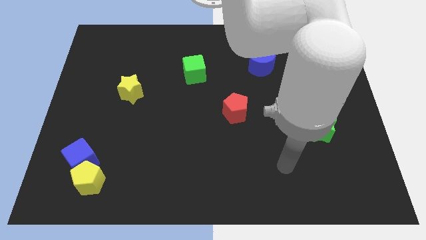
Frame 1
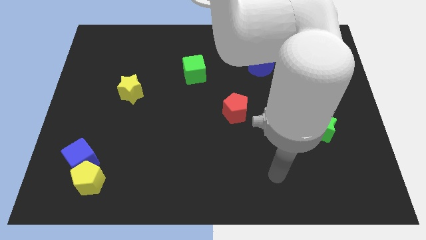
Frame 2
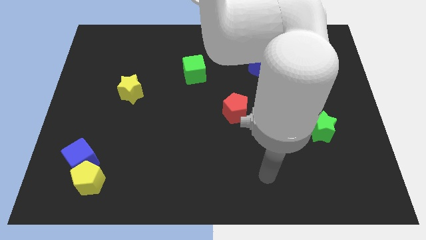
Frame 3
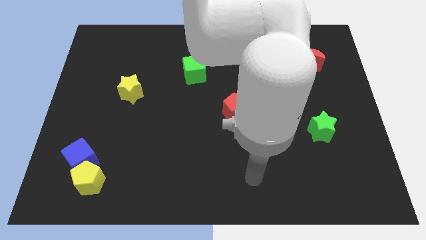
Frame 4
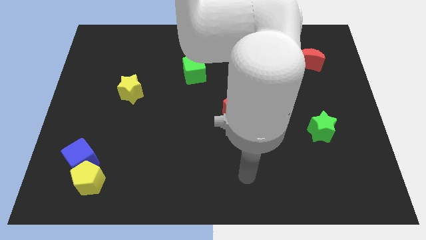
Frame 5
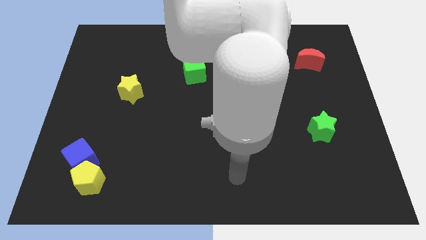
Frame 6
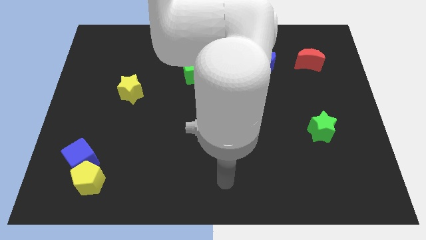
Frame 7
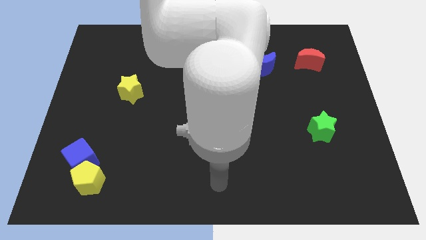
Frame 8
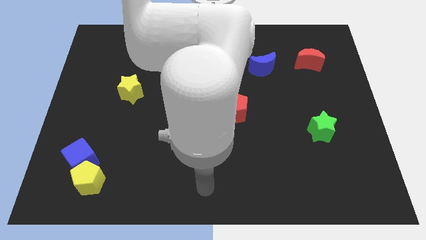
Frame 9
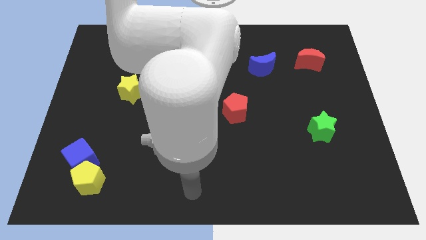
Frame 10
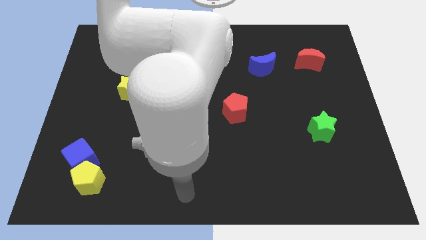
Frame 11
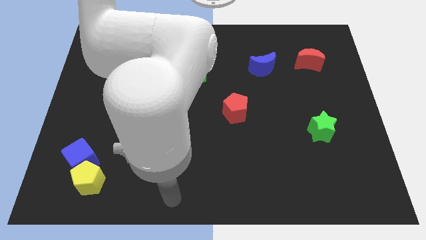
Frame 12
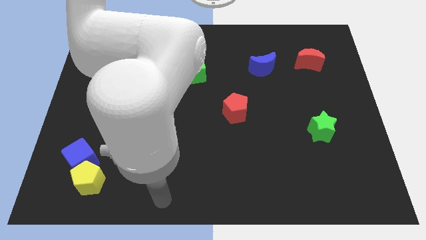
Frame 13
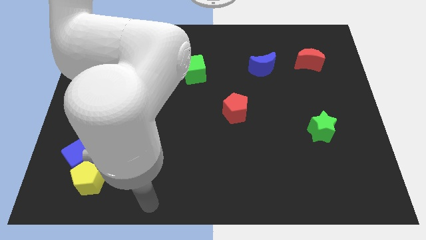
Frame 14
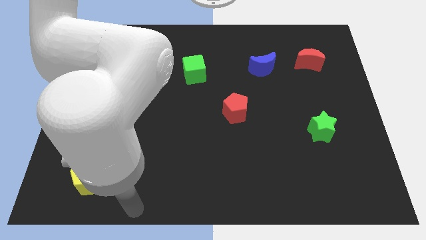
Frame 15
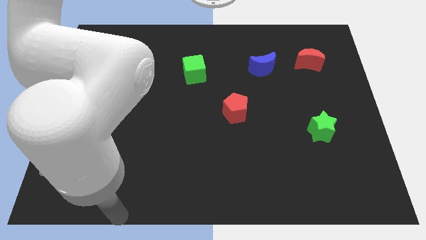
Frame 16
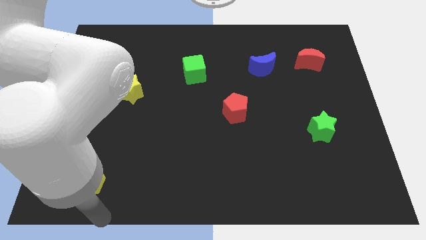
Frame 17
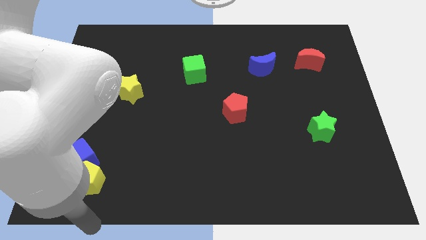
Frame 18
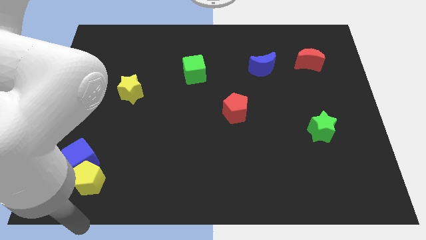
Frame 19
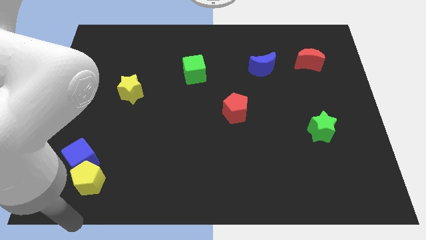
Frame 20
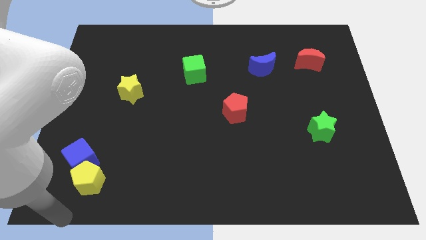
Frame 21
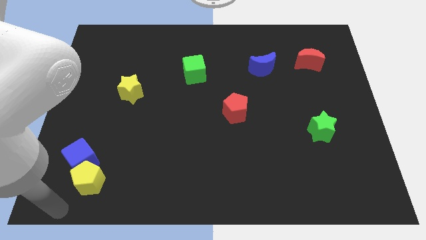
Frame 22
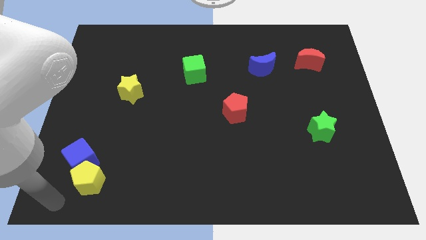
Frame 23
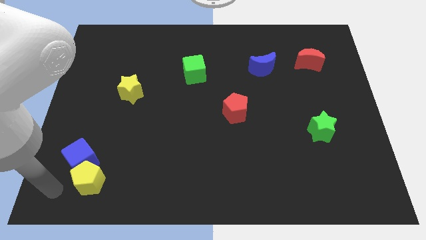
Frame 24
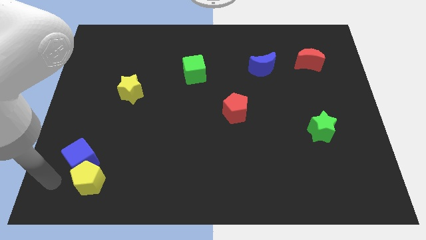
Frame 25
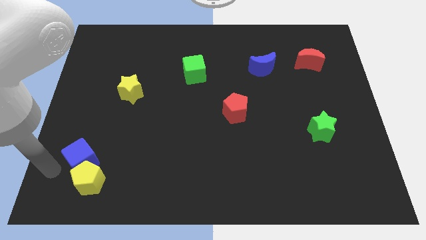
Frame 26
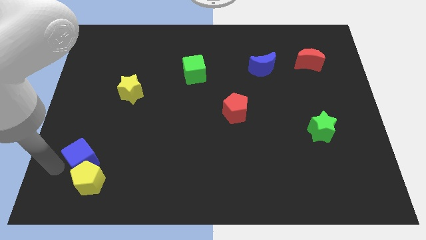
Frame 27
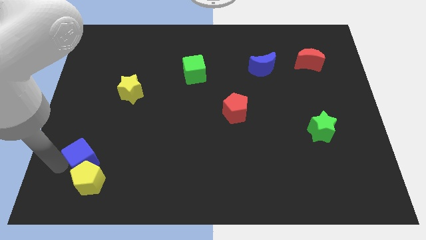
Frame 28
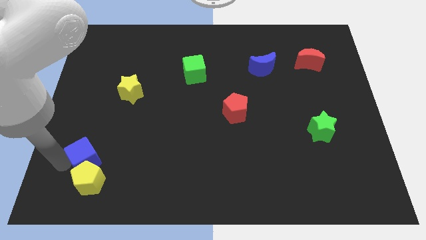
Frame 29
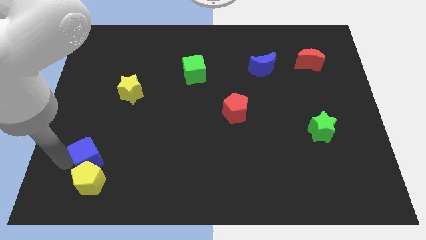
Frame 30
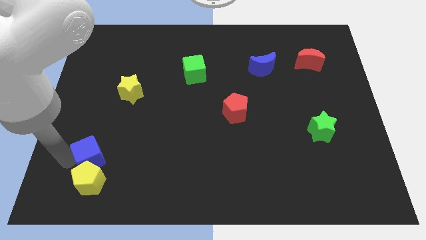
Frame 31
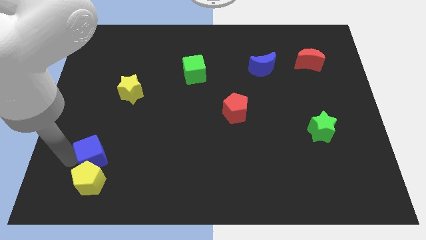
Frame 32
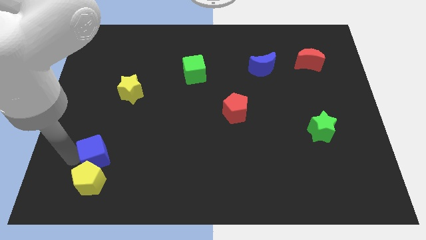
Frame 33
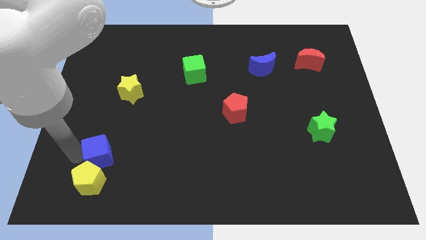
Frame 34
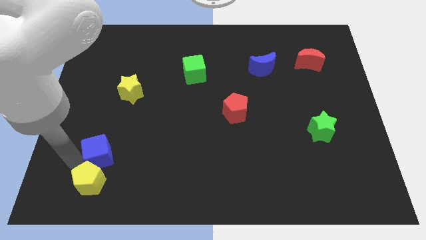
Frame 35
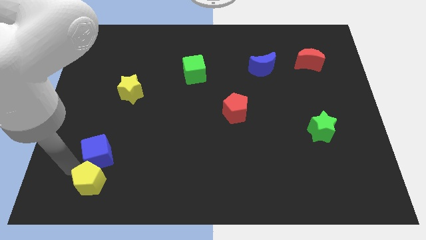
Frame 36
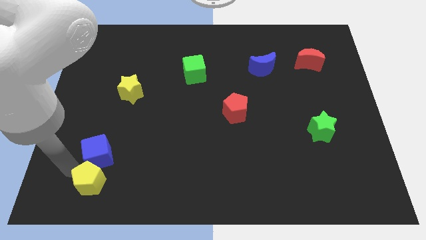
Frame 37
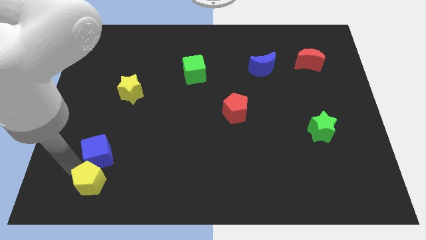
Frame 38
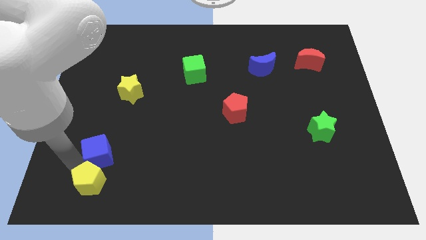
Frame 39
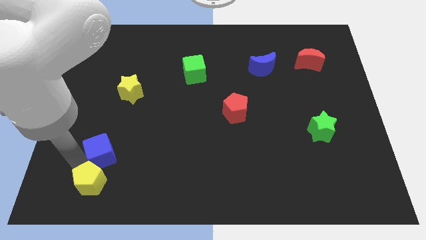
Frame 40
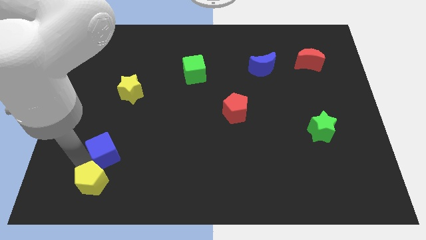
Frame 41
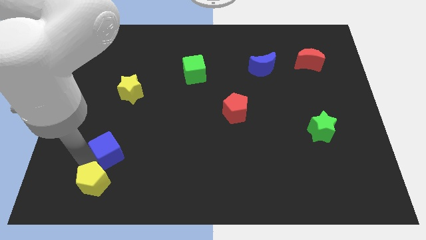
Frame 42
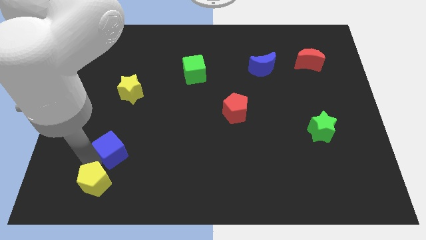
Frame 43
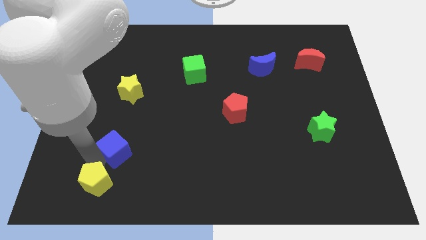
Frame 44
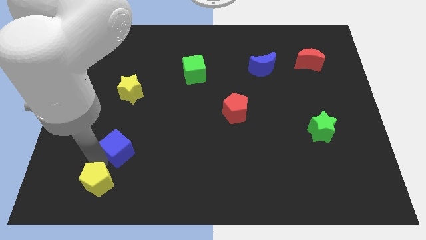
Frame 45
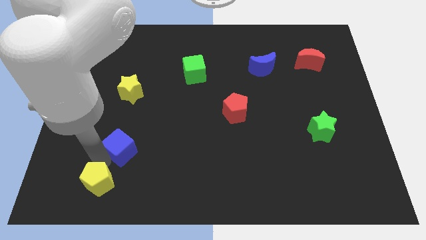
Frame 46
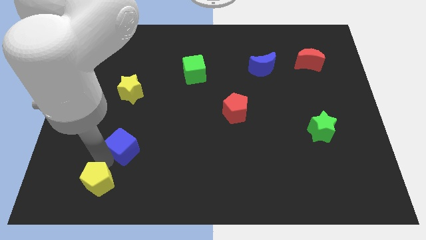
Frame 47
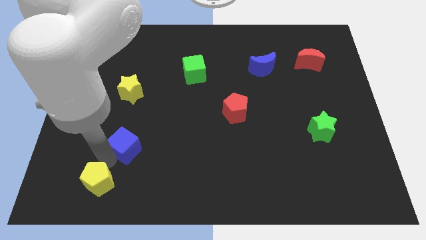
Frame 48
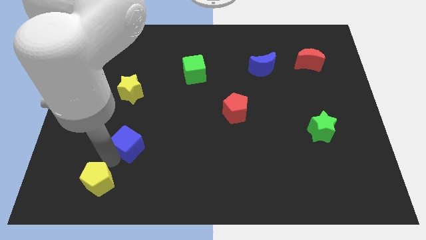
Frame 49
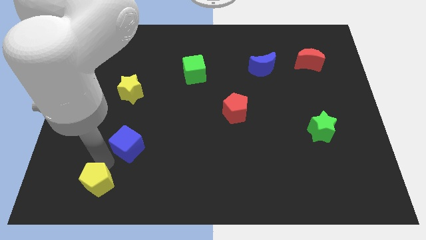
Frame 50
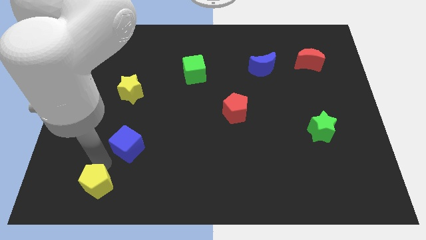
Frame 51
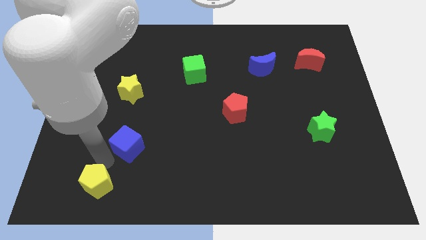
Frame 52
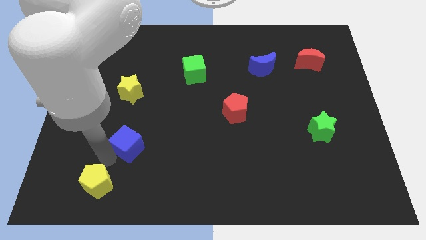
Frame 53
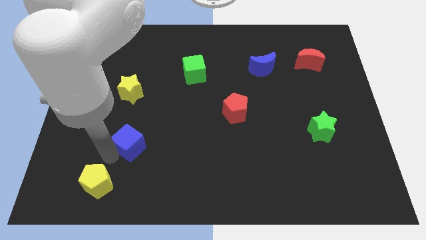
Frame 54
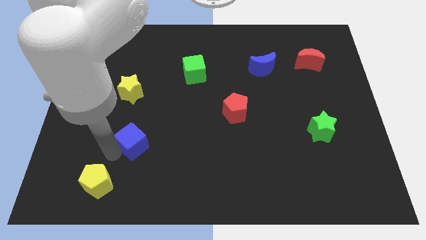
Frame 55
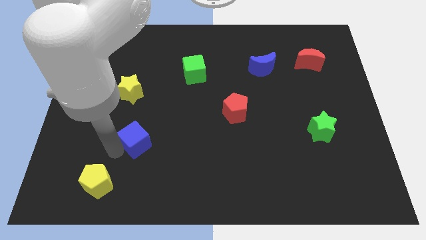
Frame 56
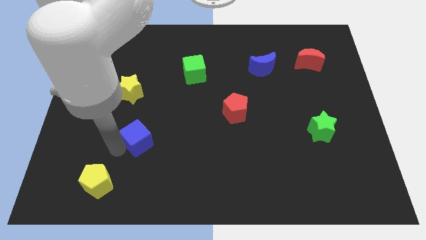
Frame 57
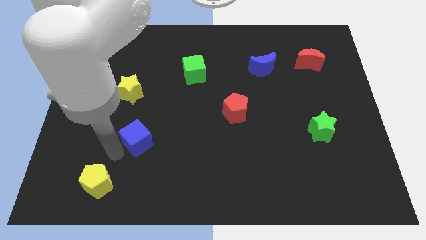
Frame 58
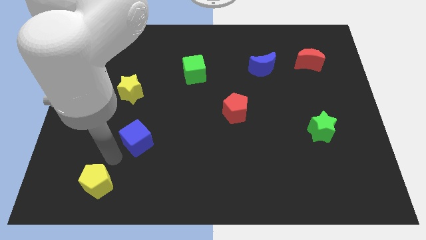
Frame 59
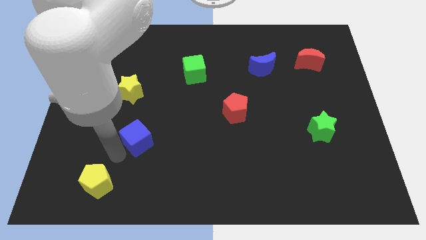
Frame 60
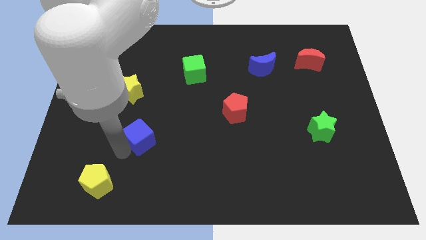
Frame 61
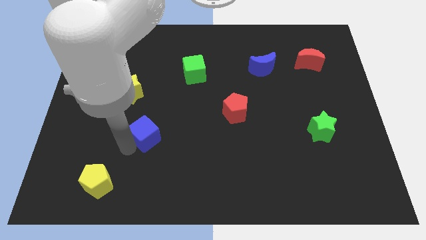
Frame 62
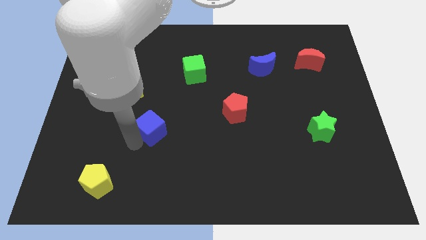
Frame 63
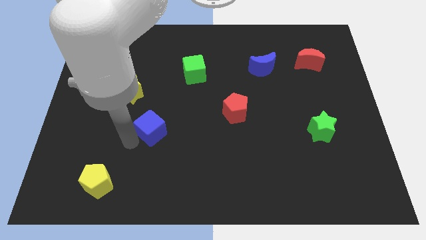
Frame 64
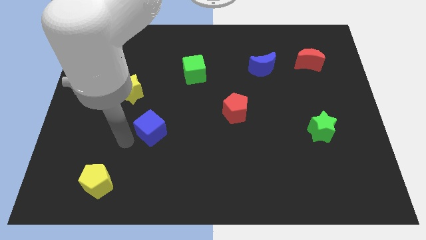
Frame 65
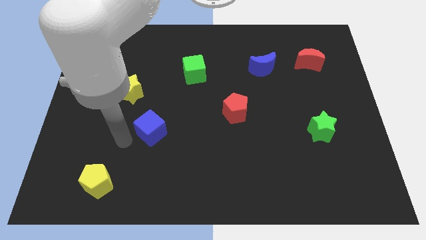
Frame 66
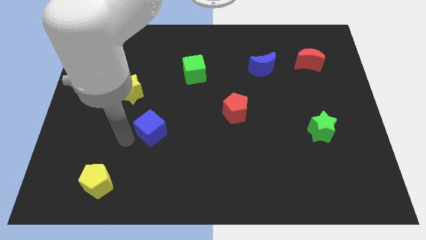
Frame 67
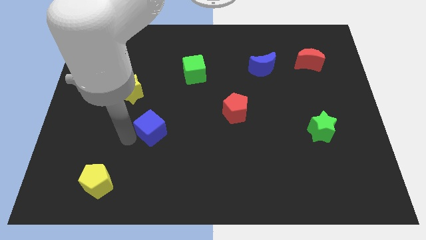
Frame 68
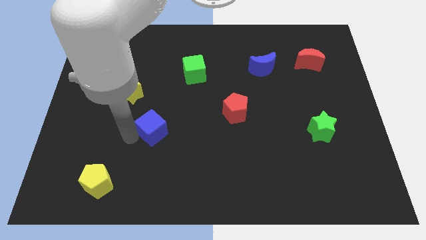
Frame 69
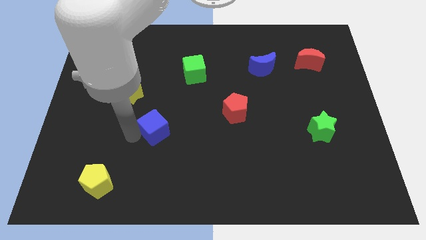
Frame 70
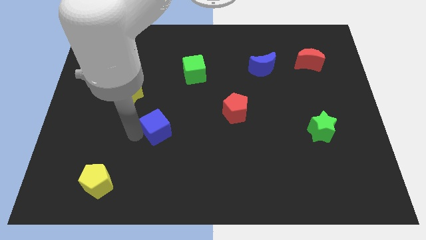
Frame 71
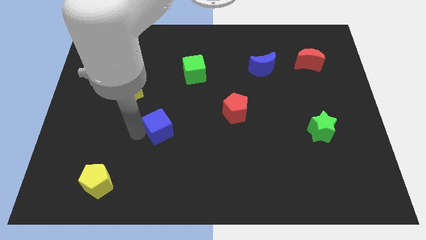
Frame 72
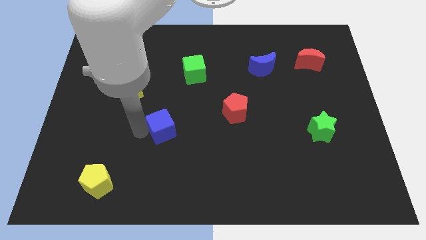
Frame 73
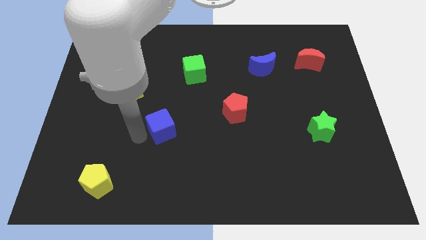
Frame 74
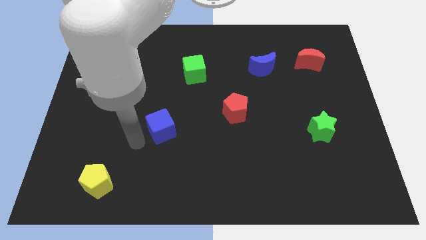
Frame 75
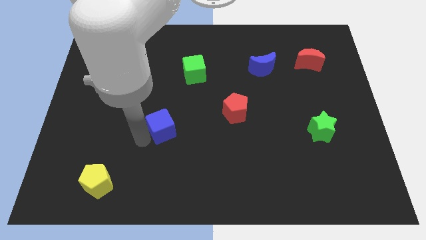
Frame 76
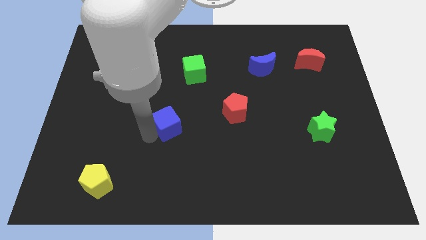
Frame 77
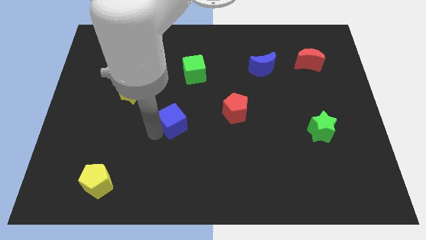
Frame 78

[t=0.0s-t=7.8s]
move the blue cube to the center
